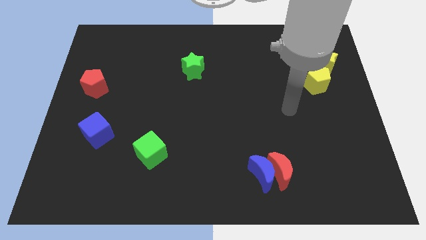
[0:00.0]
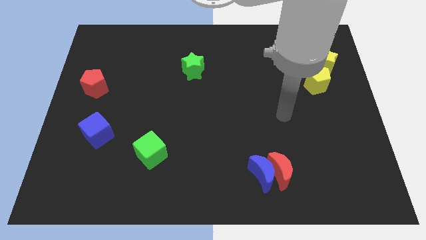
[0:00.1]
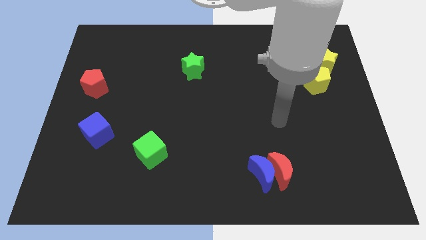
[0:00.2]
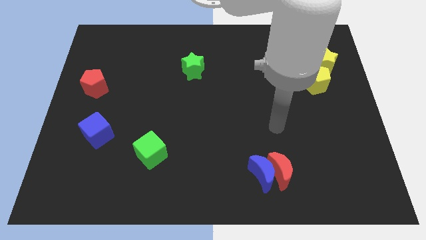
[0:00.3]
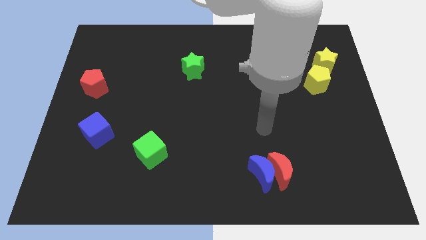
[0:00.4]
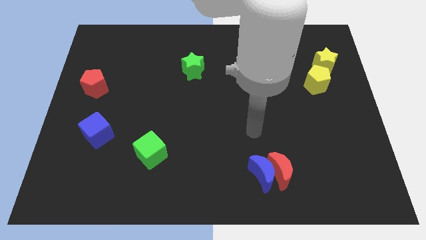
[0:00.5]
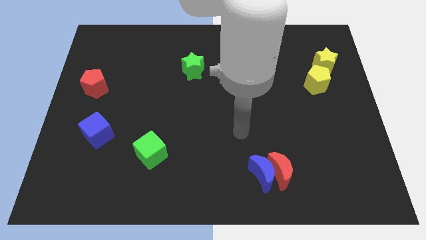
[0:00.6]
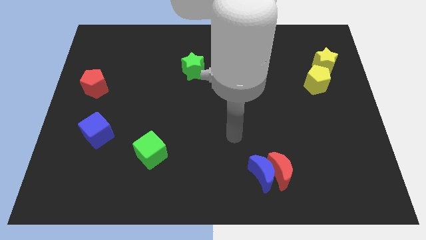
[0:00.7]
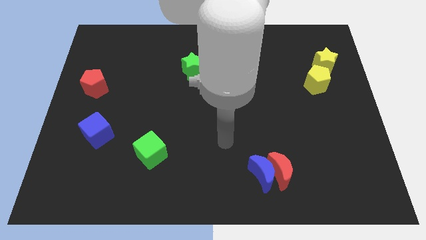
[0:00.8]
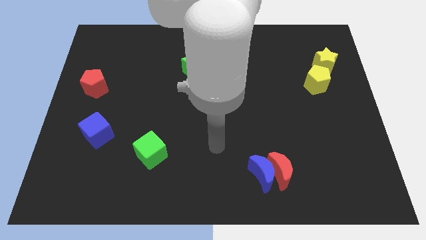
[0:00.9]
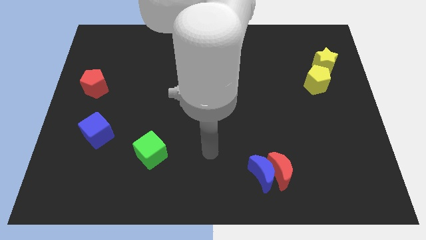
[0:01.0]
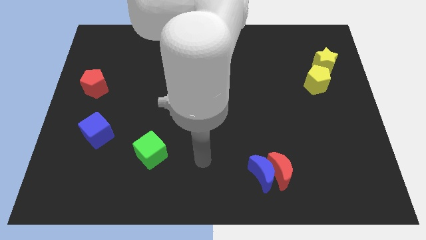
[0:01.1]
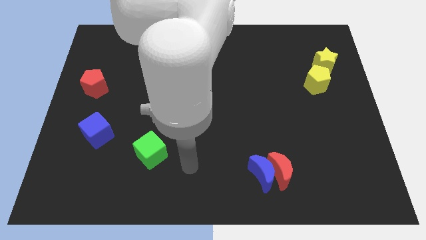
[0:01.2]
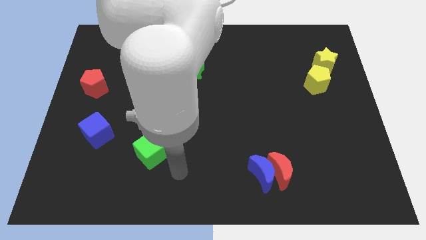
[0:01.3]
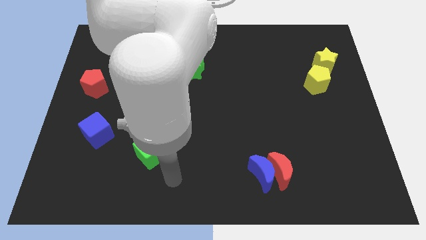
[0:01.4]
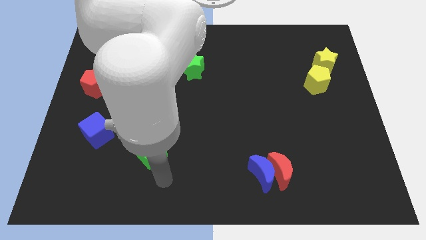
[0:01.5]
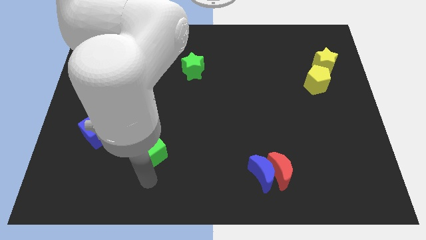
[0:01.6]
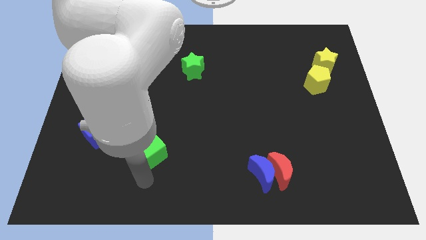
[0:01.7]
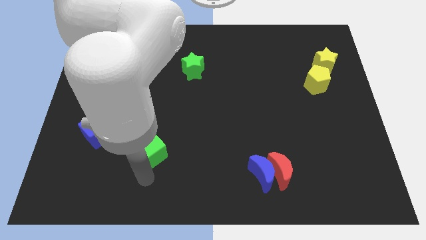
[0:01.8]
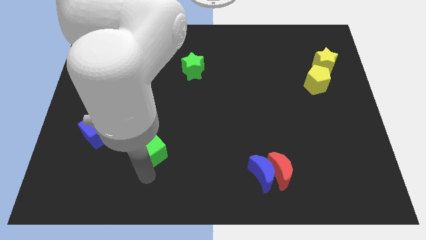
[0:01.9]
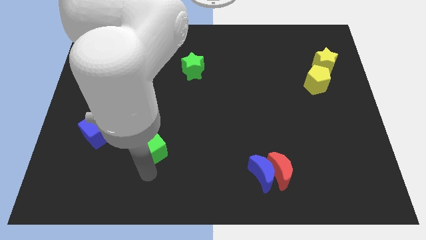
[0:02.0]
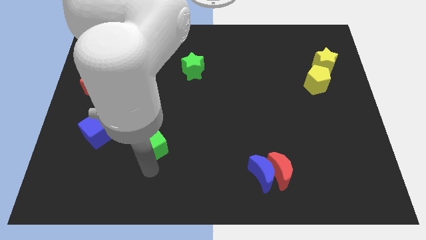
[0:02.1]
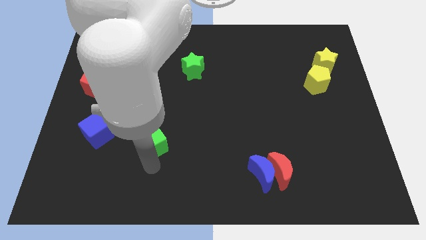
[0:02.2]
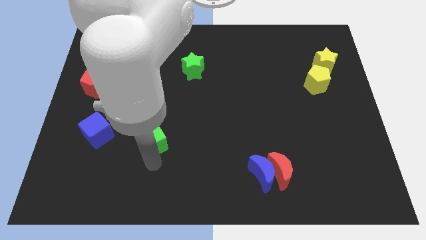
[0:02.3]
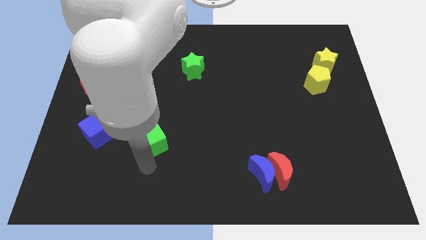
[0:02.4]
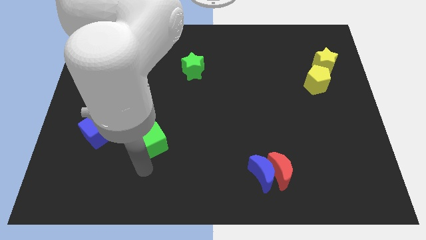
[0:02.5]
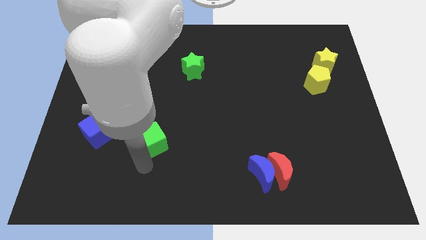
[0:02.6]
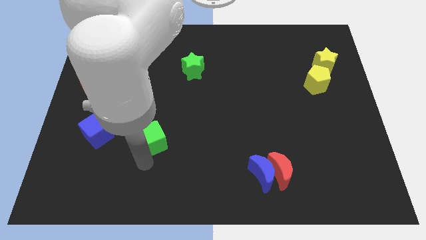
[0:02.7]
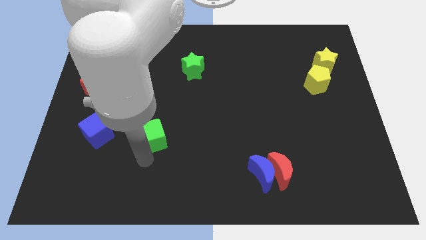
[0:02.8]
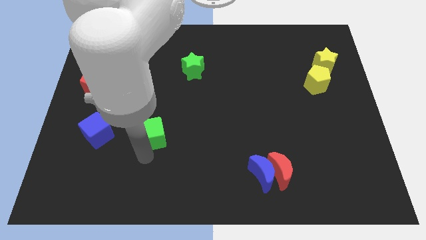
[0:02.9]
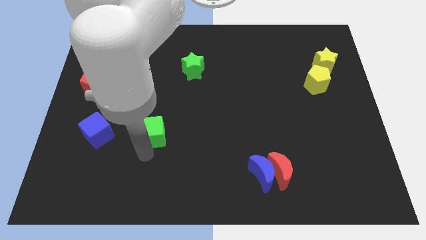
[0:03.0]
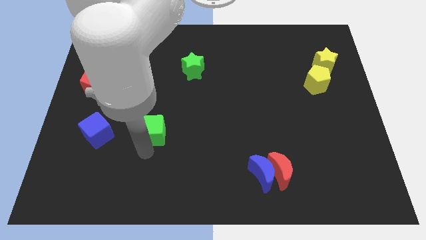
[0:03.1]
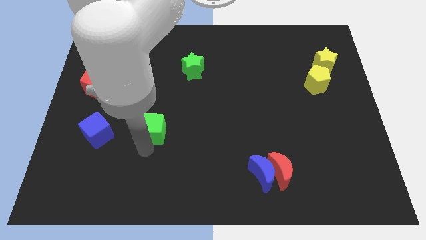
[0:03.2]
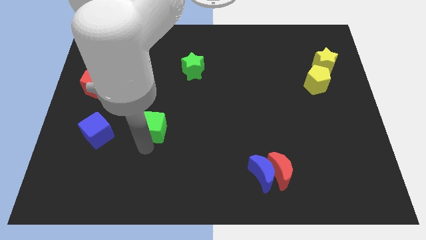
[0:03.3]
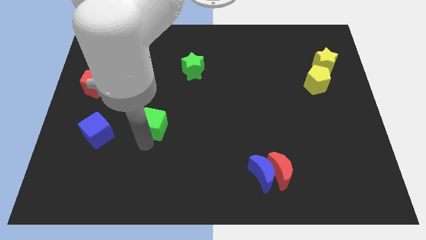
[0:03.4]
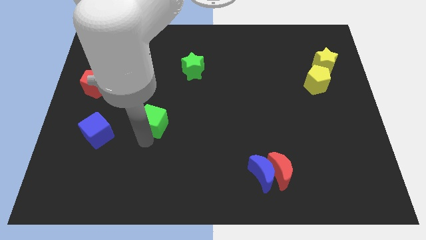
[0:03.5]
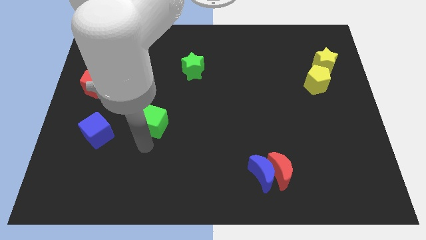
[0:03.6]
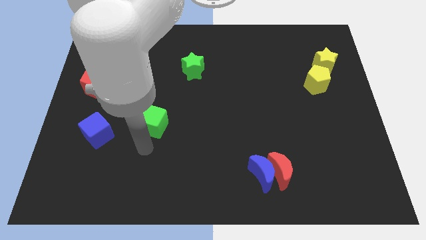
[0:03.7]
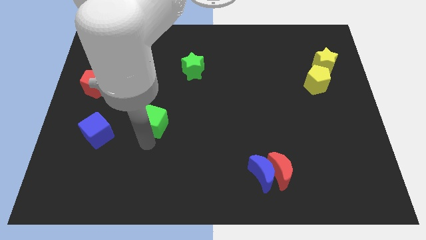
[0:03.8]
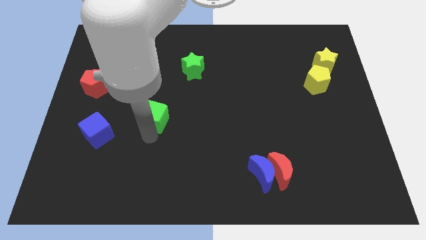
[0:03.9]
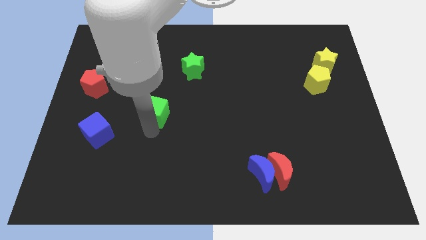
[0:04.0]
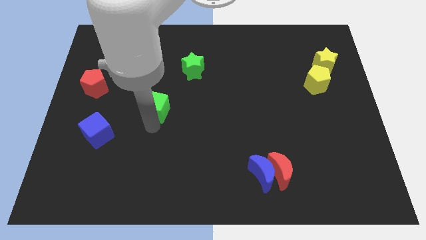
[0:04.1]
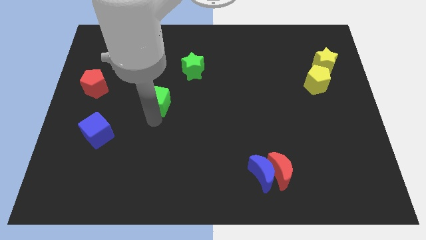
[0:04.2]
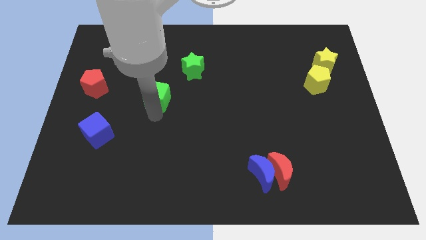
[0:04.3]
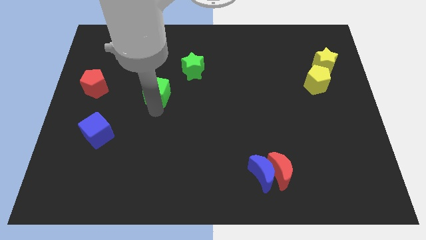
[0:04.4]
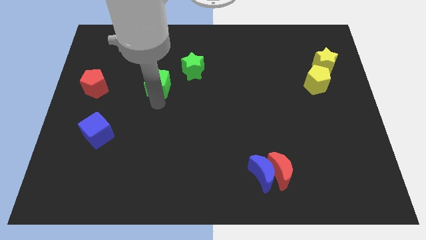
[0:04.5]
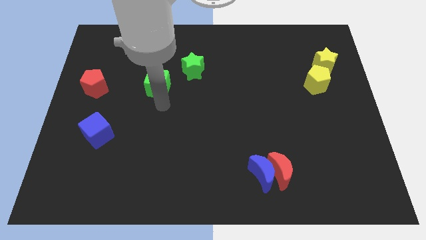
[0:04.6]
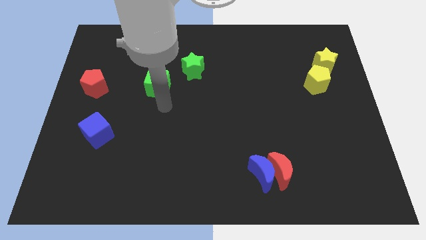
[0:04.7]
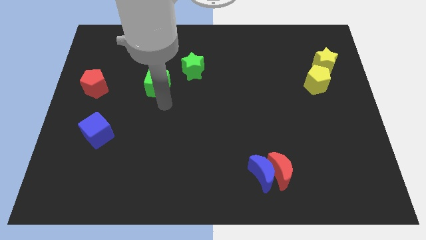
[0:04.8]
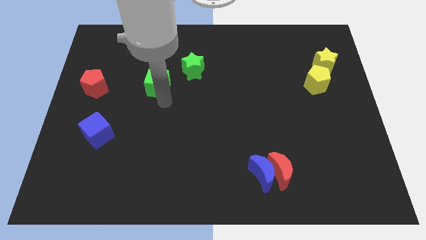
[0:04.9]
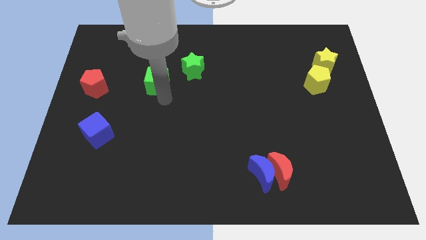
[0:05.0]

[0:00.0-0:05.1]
push the green cube just left of the green star

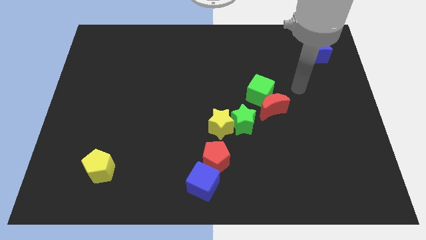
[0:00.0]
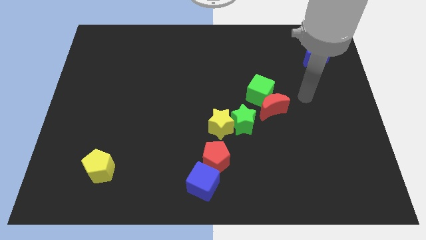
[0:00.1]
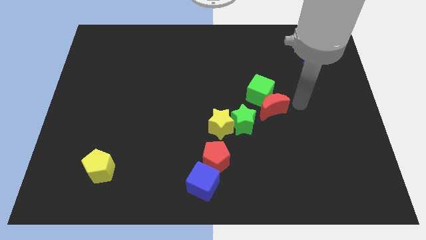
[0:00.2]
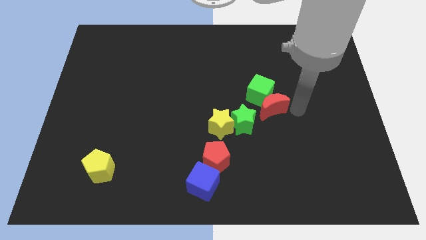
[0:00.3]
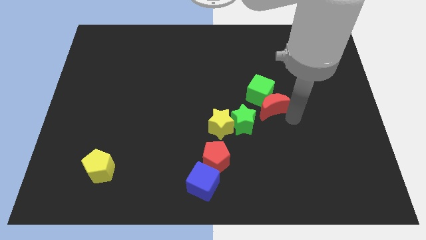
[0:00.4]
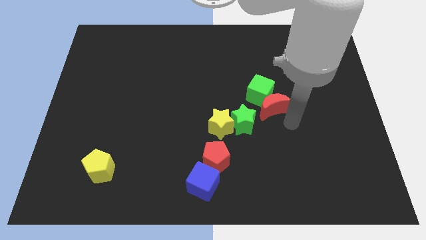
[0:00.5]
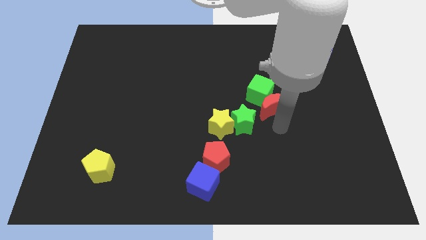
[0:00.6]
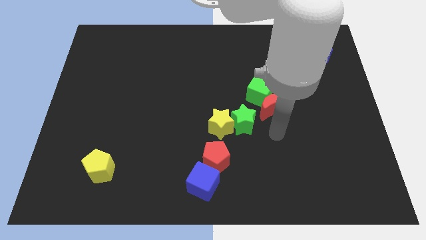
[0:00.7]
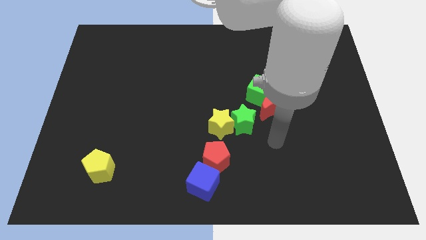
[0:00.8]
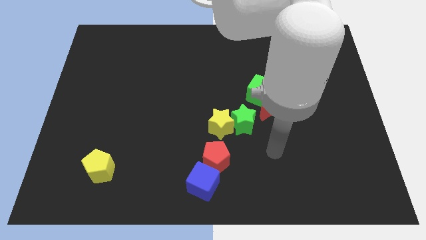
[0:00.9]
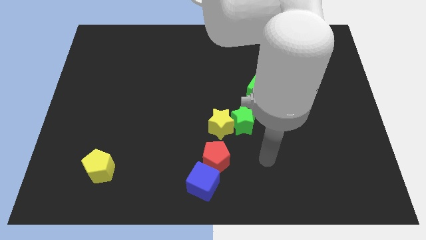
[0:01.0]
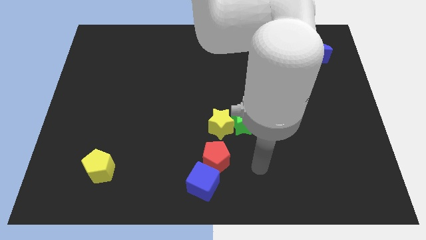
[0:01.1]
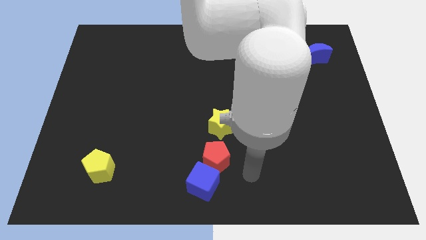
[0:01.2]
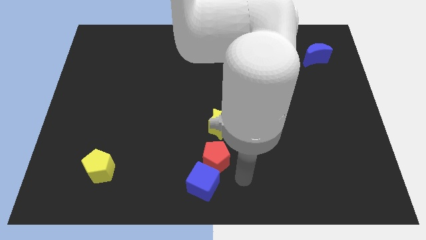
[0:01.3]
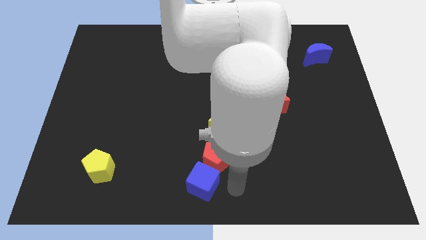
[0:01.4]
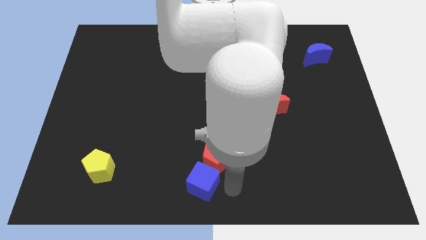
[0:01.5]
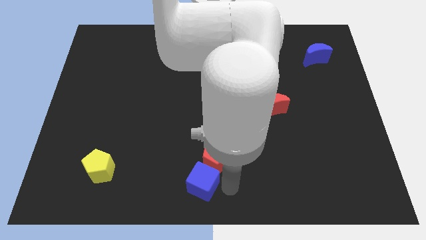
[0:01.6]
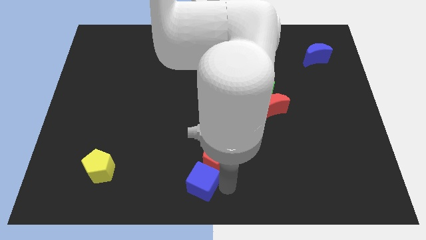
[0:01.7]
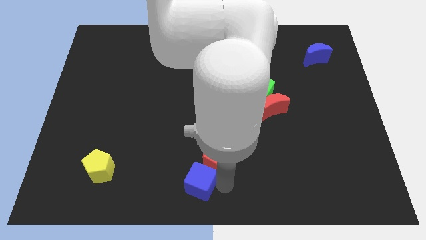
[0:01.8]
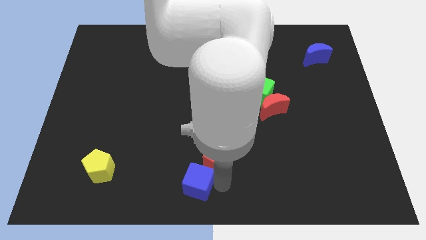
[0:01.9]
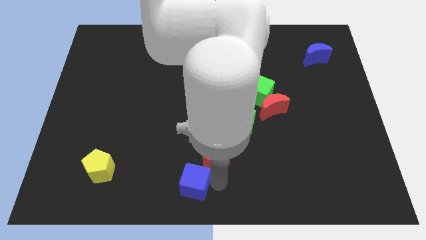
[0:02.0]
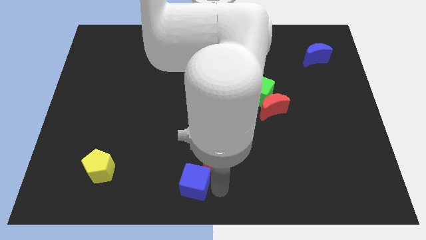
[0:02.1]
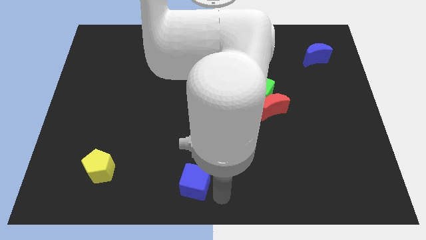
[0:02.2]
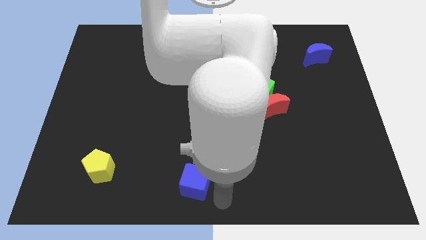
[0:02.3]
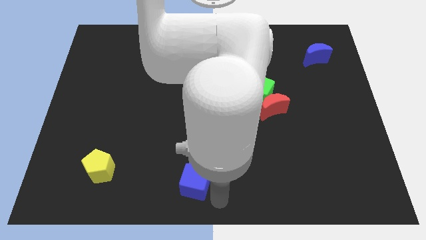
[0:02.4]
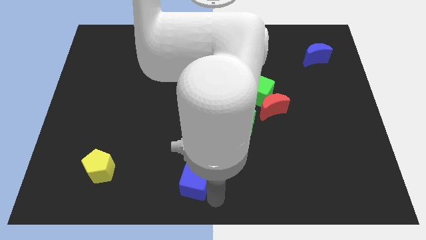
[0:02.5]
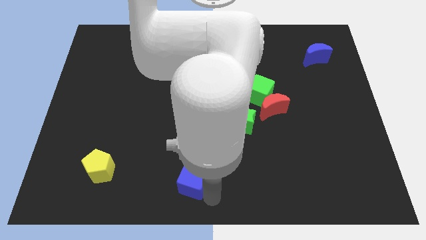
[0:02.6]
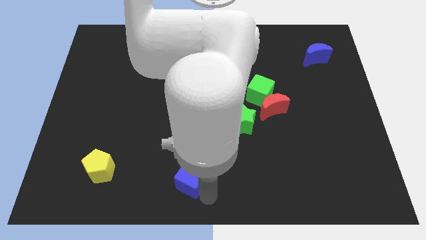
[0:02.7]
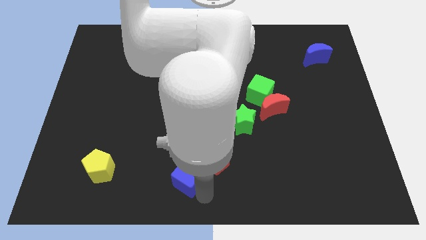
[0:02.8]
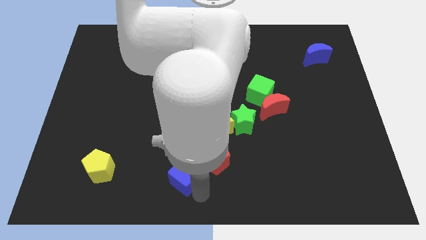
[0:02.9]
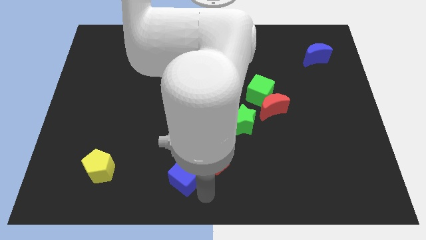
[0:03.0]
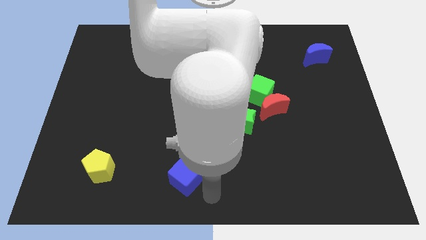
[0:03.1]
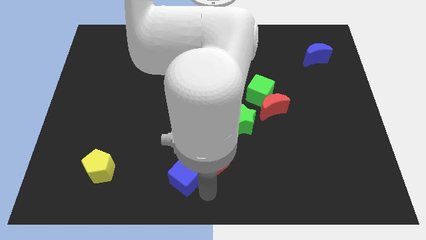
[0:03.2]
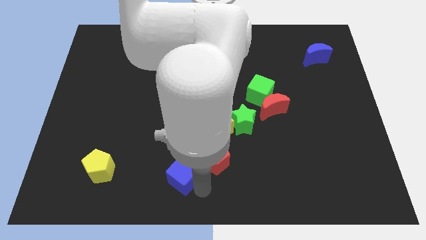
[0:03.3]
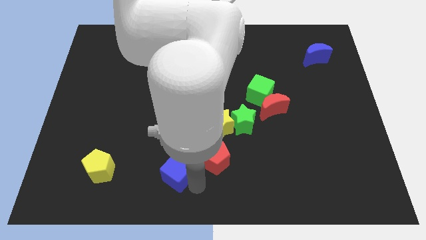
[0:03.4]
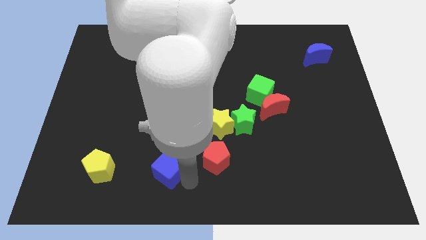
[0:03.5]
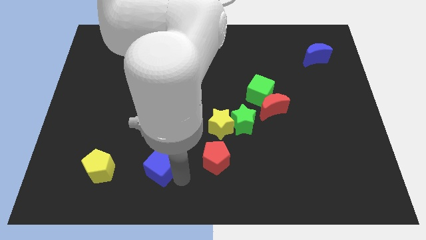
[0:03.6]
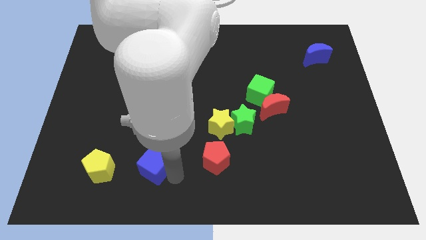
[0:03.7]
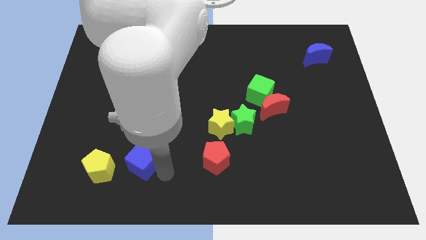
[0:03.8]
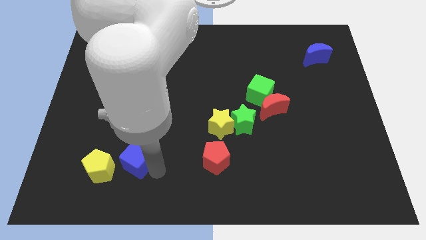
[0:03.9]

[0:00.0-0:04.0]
push the blue cube diagonally up and to the right of the yellow pentagon
